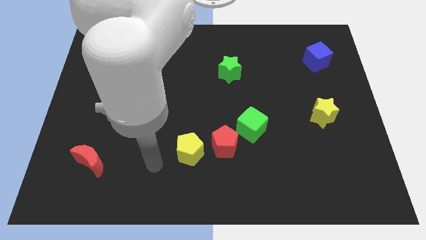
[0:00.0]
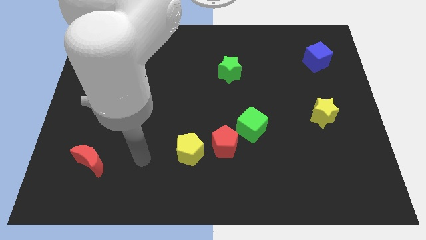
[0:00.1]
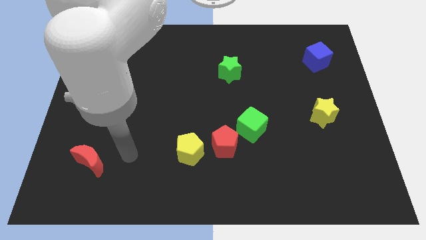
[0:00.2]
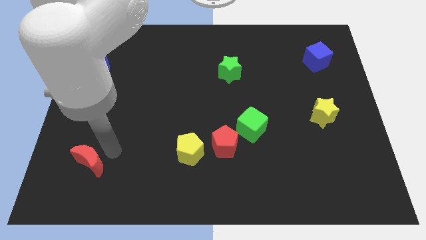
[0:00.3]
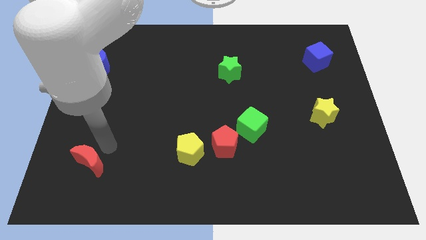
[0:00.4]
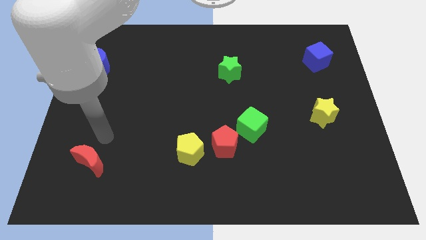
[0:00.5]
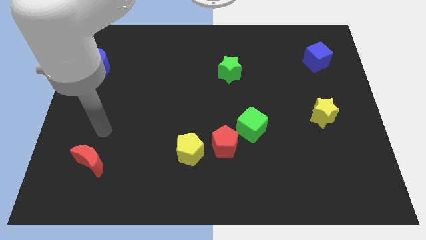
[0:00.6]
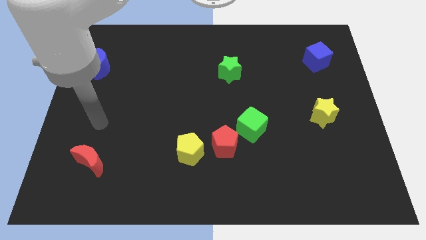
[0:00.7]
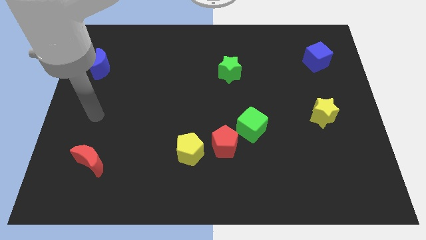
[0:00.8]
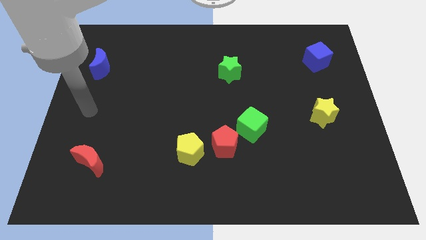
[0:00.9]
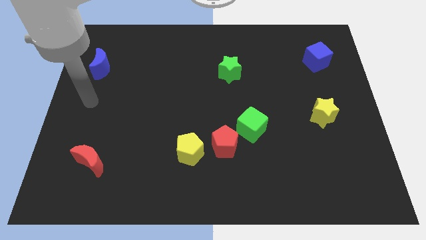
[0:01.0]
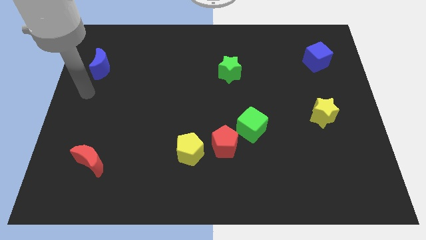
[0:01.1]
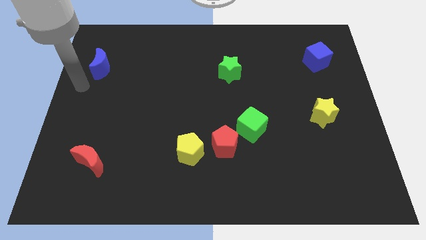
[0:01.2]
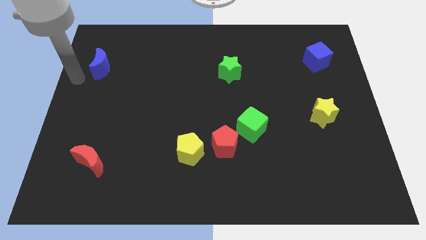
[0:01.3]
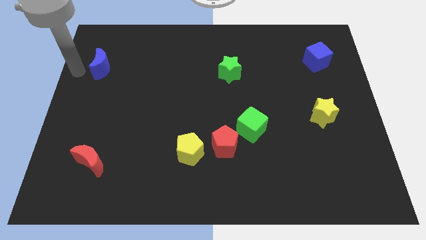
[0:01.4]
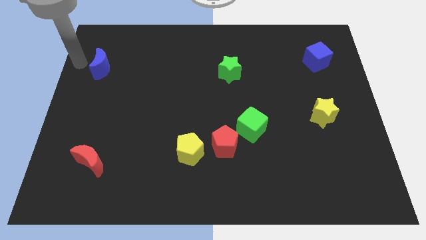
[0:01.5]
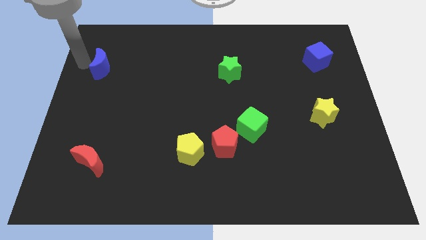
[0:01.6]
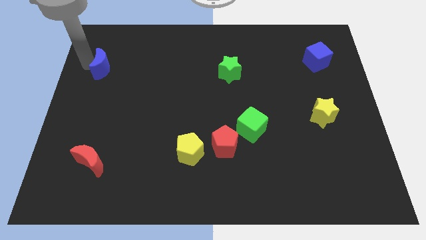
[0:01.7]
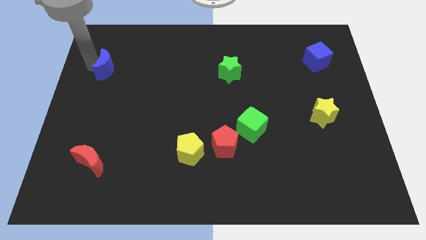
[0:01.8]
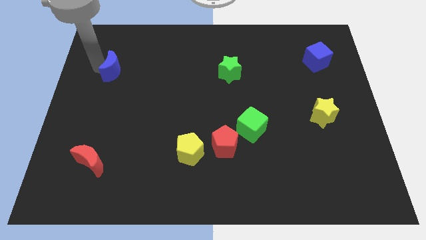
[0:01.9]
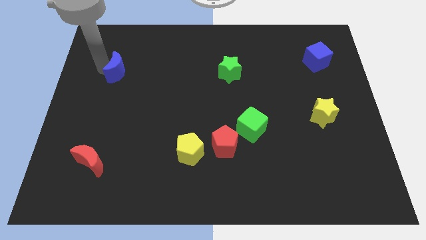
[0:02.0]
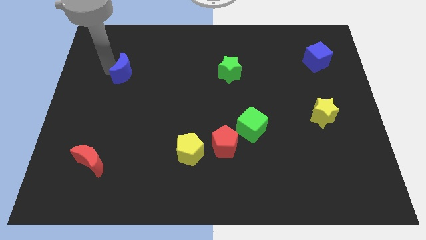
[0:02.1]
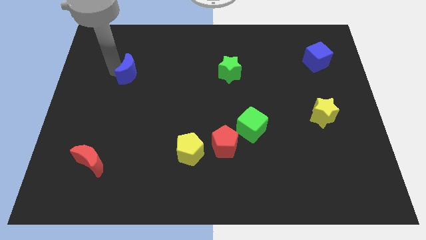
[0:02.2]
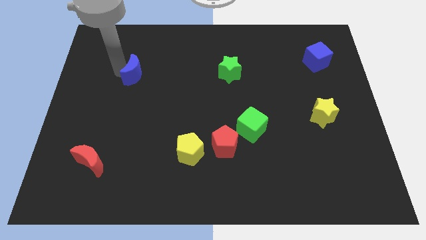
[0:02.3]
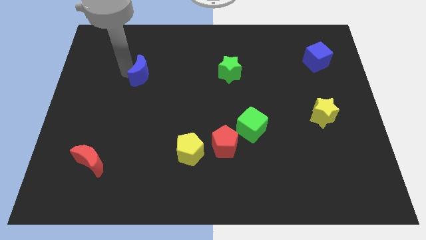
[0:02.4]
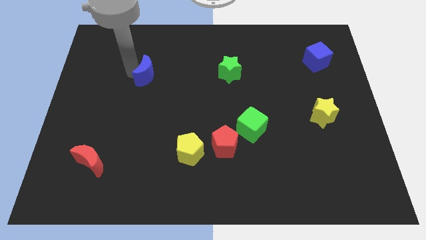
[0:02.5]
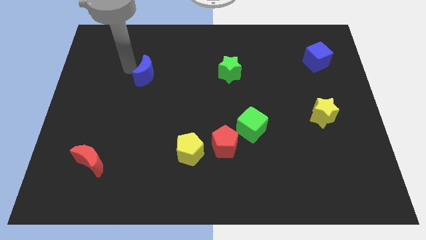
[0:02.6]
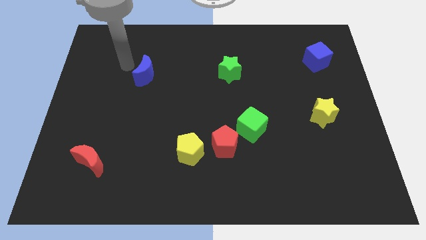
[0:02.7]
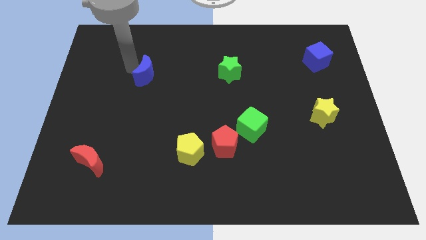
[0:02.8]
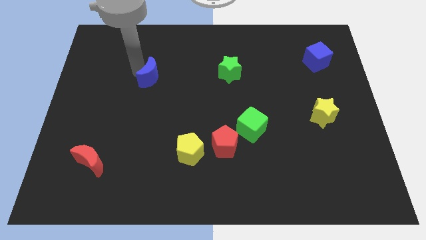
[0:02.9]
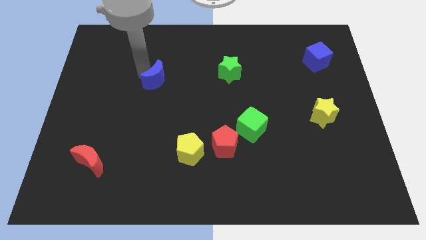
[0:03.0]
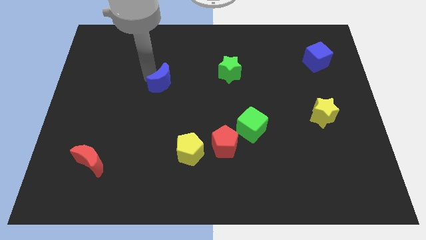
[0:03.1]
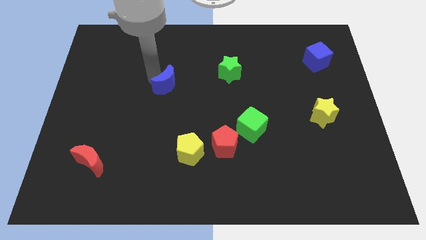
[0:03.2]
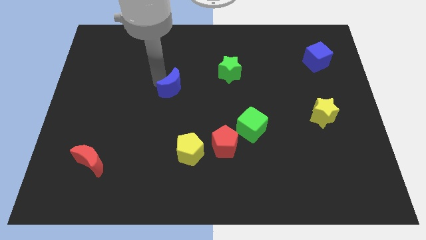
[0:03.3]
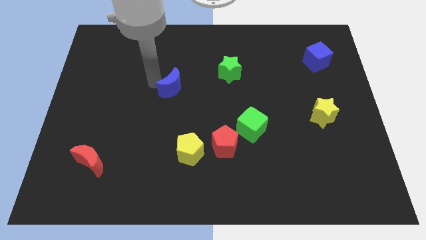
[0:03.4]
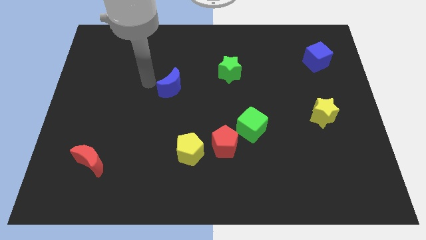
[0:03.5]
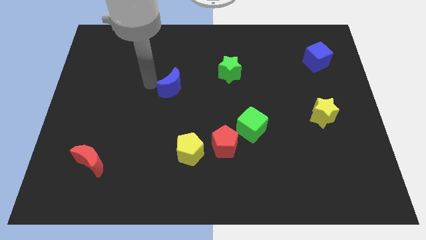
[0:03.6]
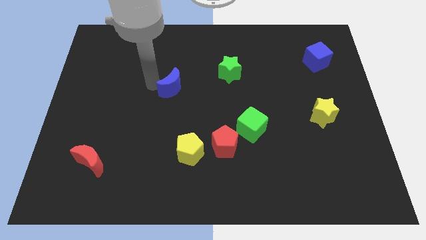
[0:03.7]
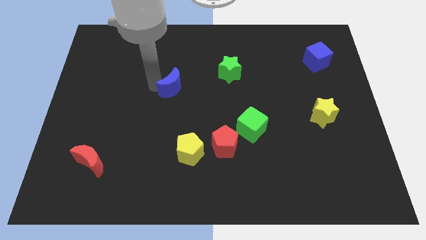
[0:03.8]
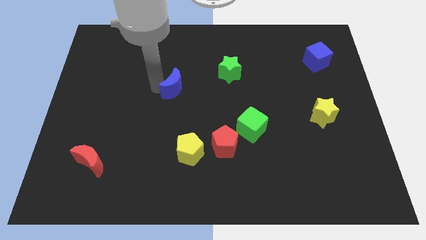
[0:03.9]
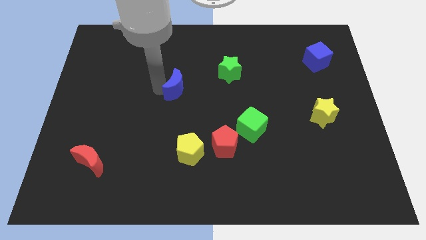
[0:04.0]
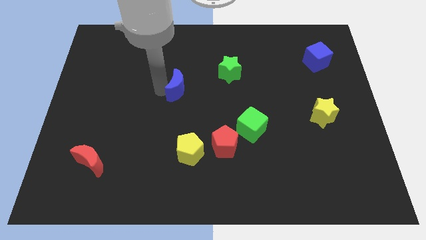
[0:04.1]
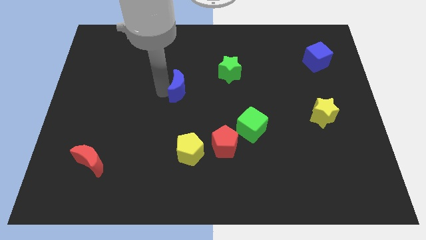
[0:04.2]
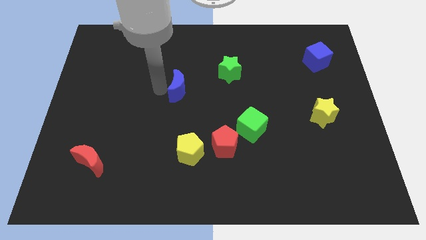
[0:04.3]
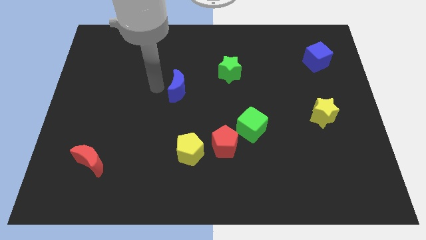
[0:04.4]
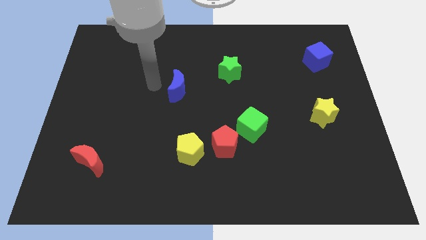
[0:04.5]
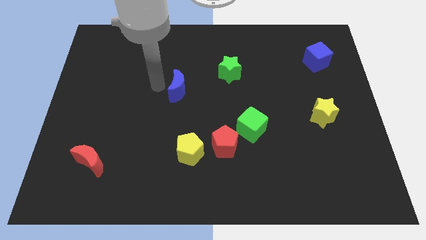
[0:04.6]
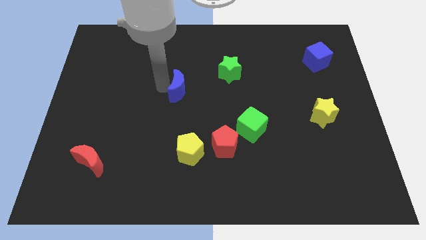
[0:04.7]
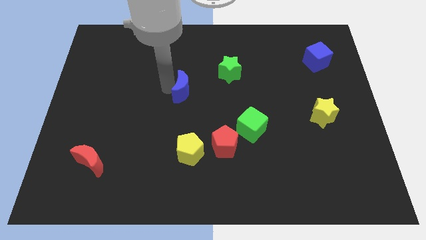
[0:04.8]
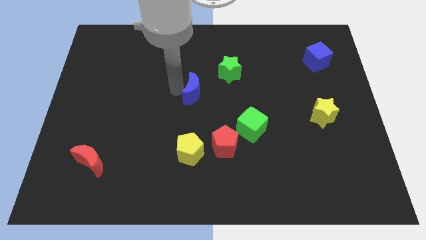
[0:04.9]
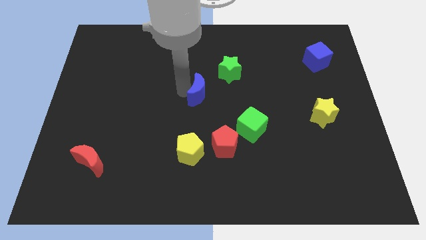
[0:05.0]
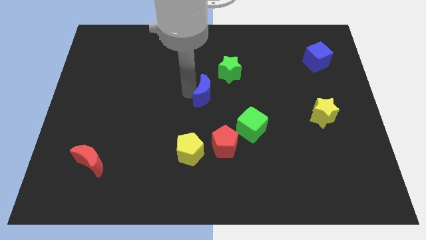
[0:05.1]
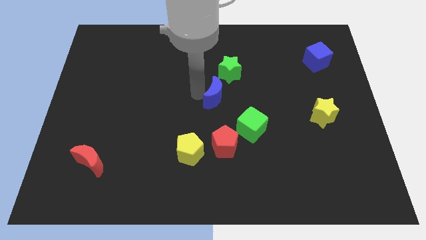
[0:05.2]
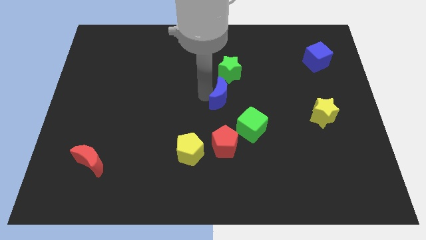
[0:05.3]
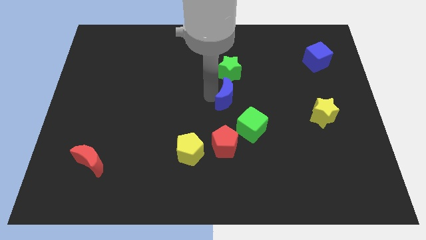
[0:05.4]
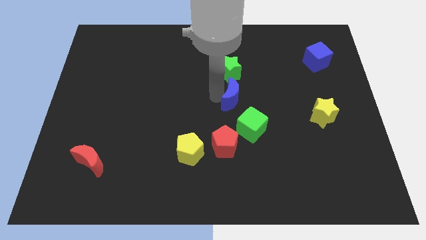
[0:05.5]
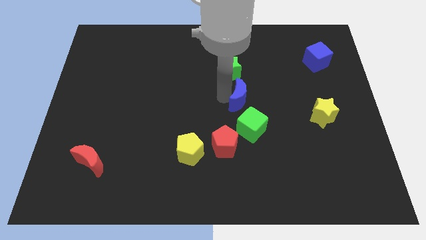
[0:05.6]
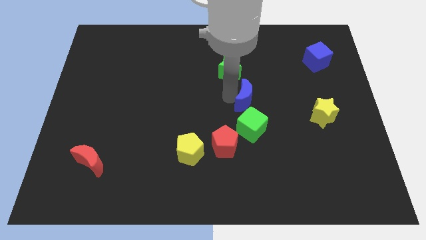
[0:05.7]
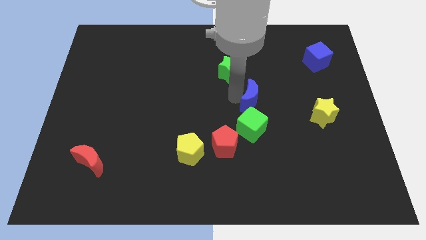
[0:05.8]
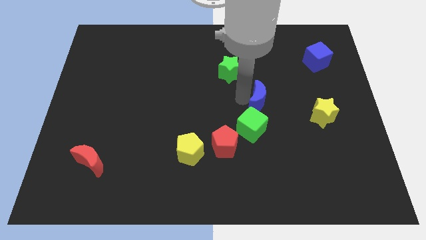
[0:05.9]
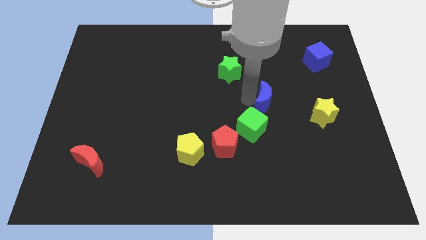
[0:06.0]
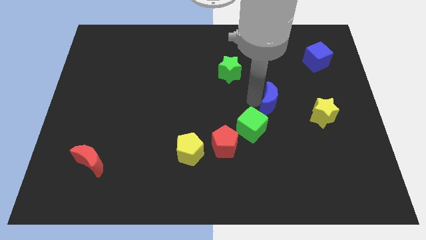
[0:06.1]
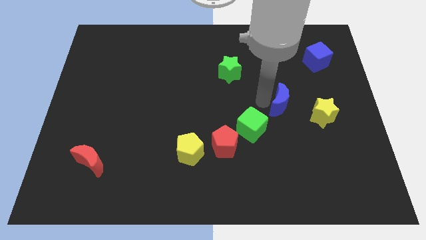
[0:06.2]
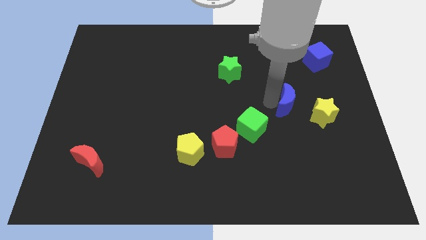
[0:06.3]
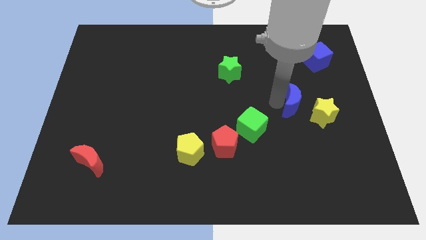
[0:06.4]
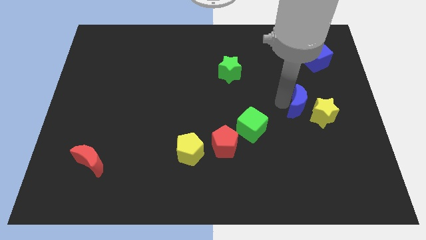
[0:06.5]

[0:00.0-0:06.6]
slide the blue moon towards the yellow star

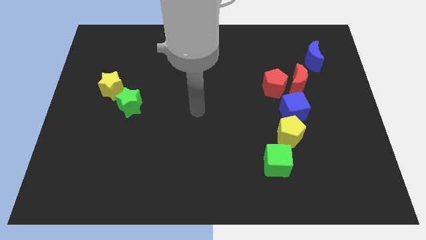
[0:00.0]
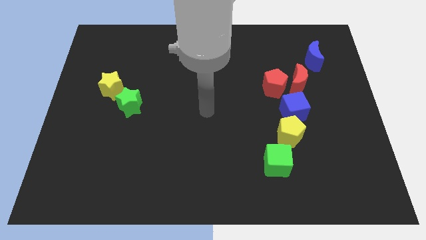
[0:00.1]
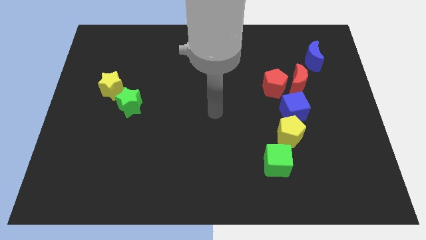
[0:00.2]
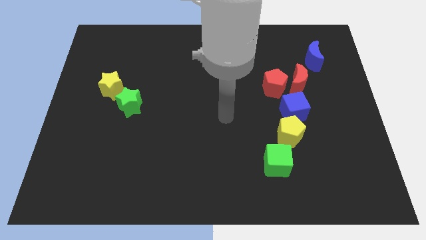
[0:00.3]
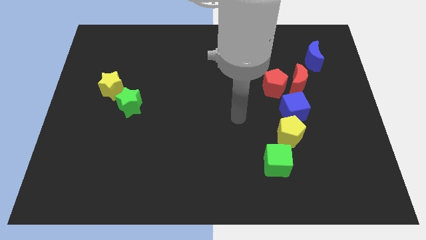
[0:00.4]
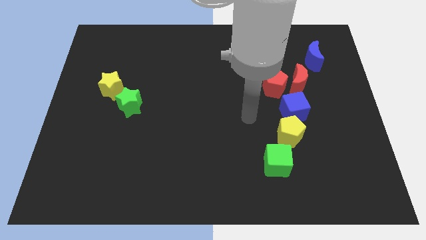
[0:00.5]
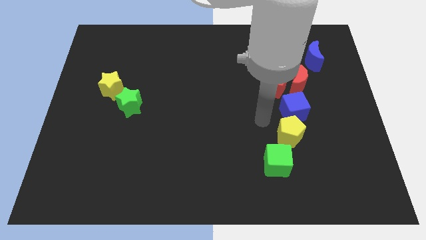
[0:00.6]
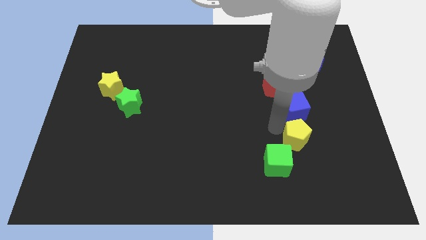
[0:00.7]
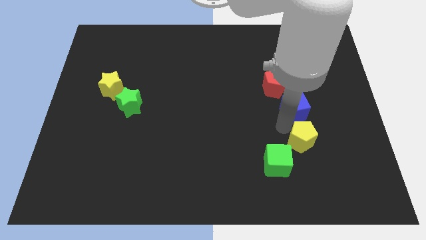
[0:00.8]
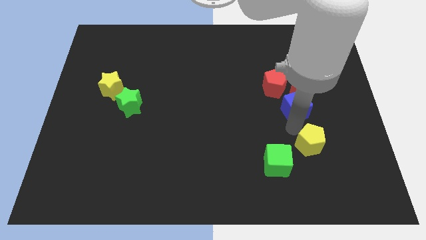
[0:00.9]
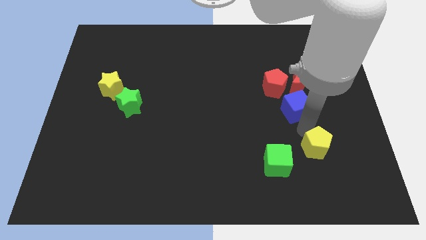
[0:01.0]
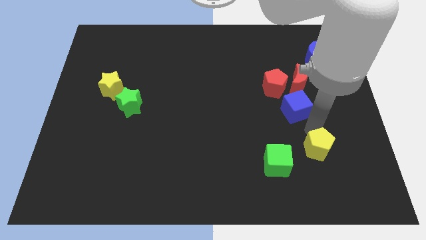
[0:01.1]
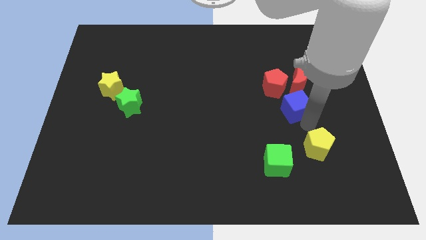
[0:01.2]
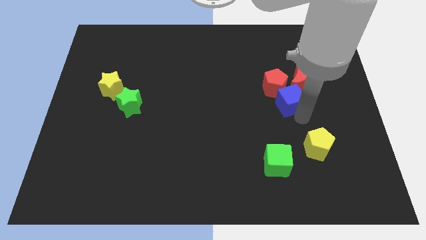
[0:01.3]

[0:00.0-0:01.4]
push the blue cube to the red pentagon

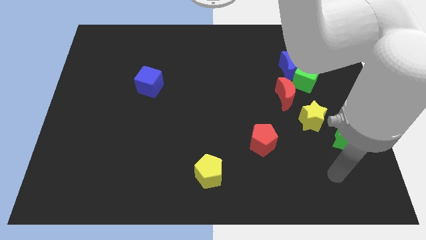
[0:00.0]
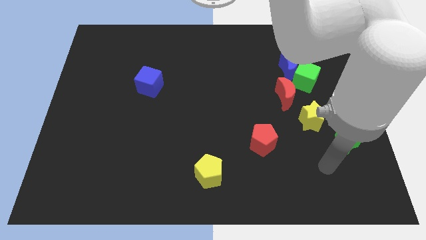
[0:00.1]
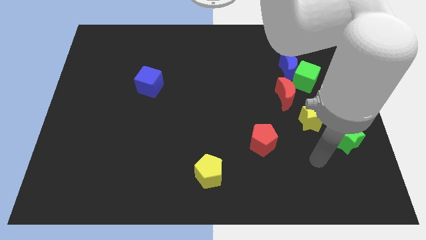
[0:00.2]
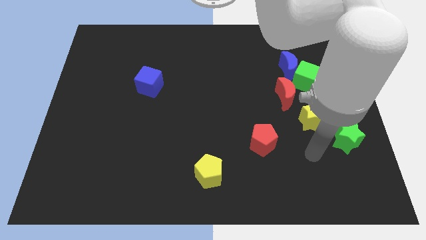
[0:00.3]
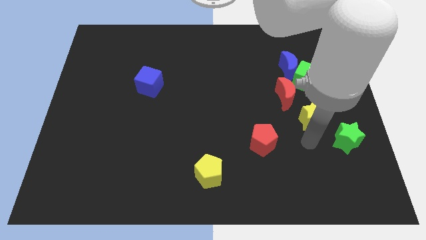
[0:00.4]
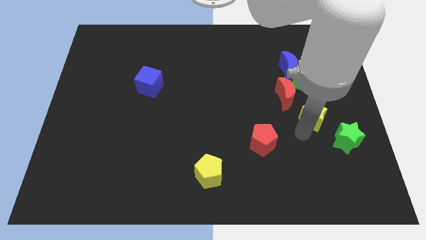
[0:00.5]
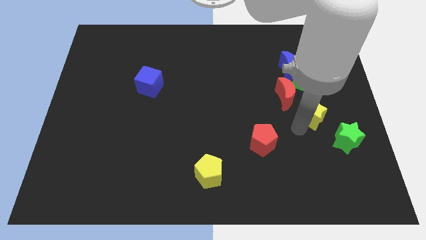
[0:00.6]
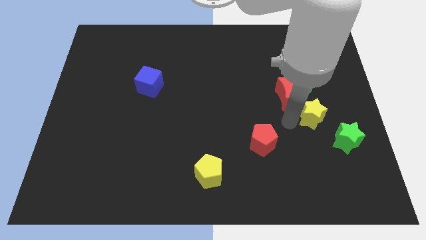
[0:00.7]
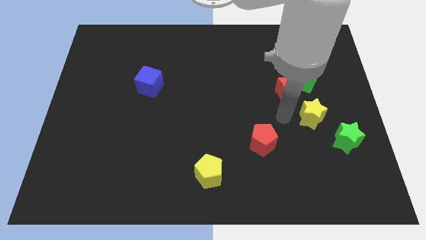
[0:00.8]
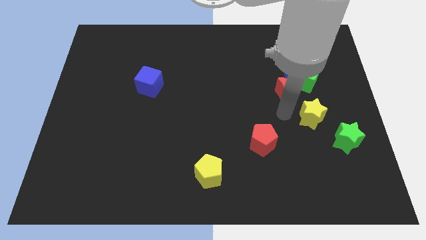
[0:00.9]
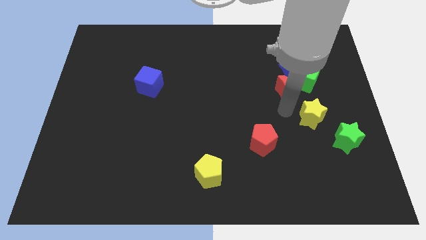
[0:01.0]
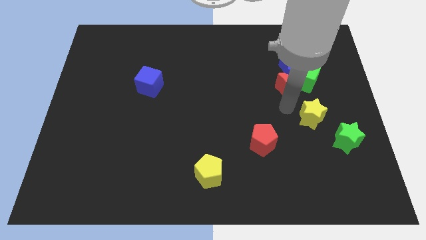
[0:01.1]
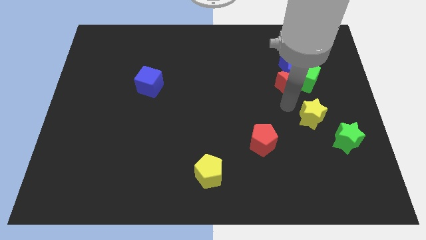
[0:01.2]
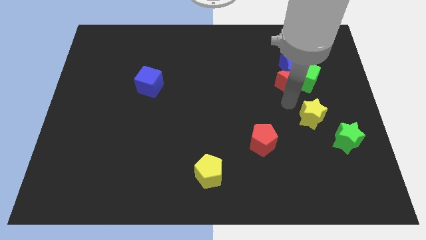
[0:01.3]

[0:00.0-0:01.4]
move the red moon close to the blue moon
